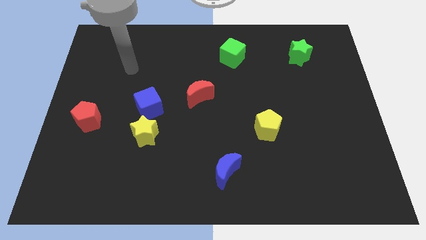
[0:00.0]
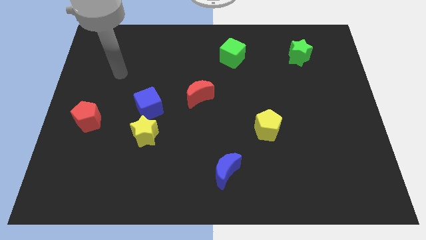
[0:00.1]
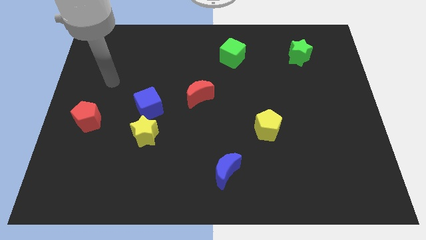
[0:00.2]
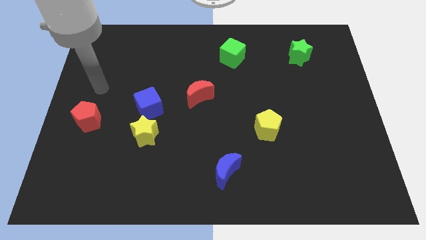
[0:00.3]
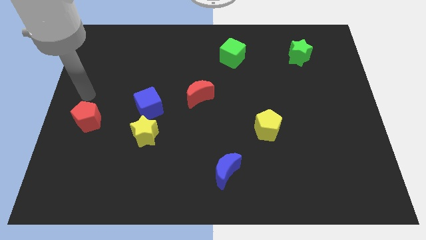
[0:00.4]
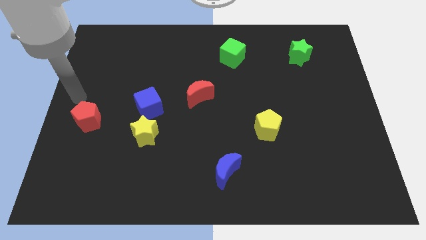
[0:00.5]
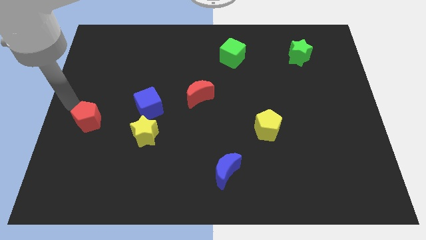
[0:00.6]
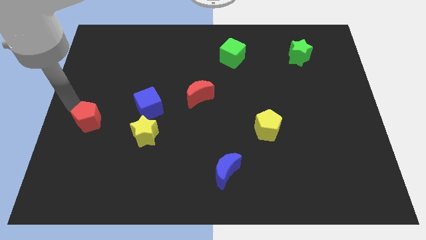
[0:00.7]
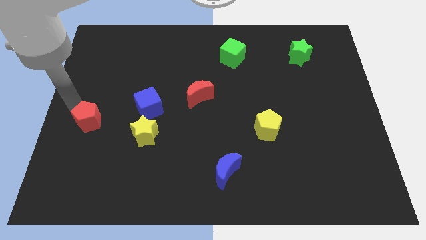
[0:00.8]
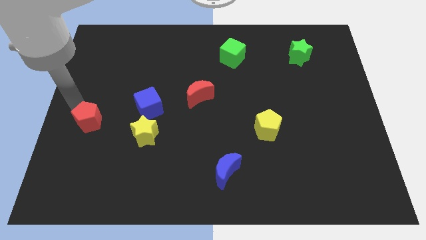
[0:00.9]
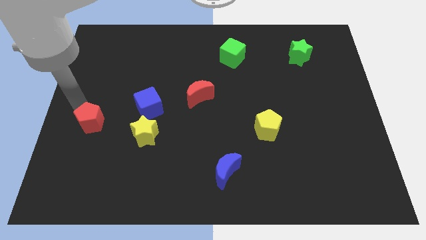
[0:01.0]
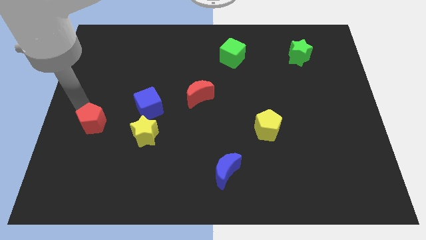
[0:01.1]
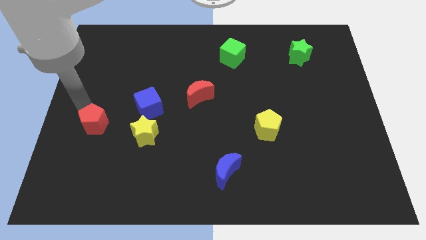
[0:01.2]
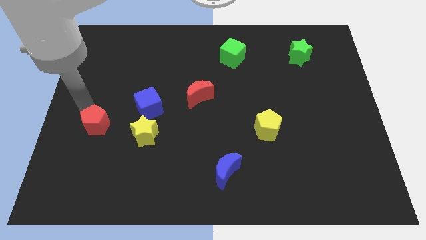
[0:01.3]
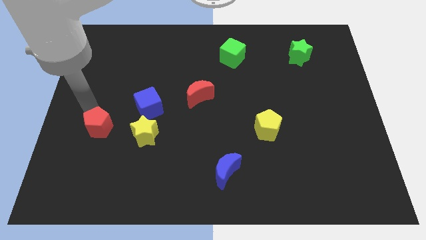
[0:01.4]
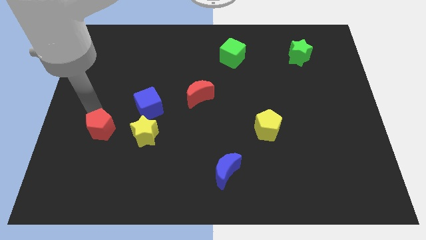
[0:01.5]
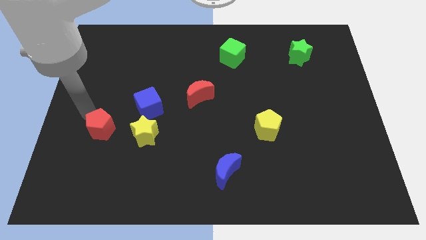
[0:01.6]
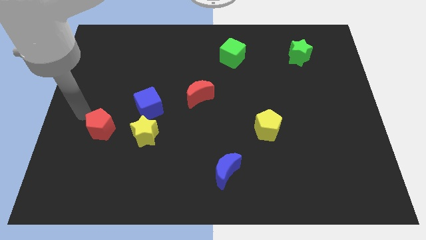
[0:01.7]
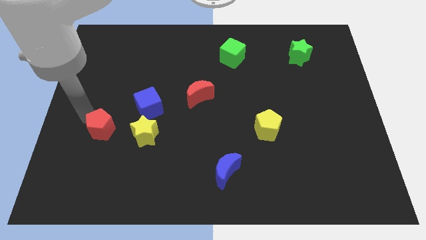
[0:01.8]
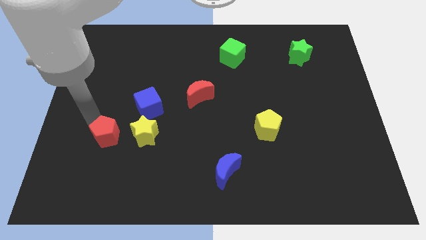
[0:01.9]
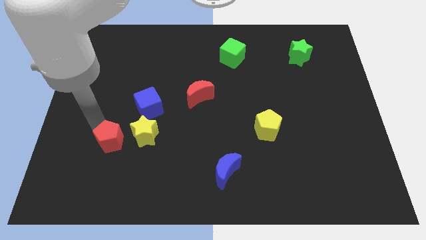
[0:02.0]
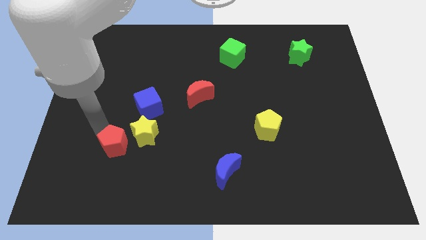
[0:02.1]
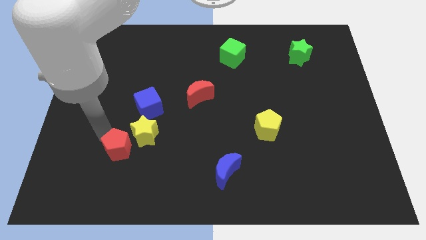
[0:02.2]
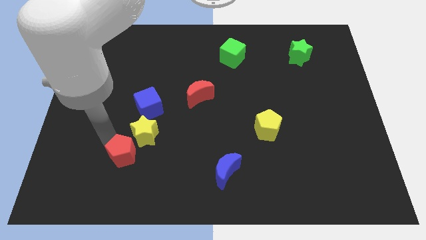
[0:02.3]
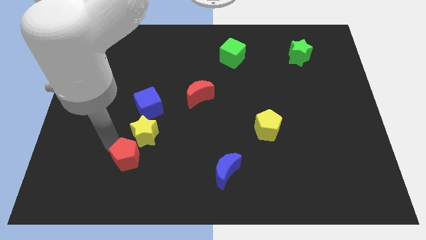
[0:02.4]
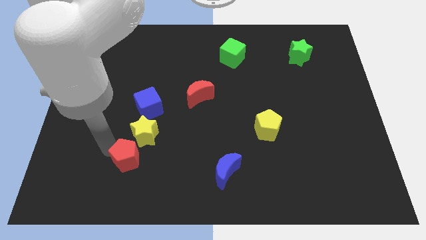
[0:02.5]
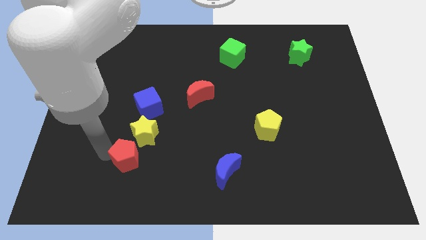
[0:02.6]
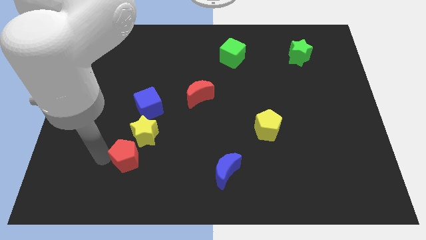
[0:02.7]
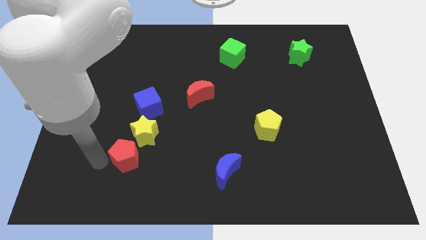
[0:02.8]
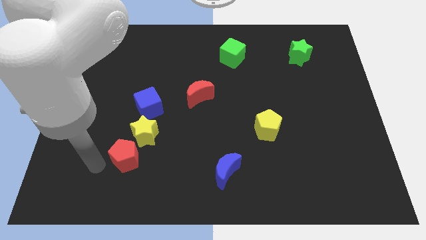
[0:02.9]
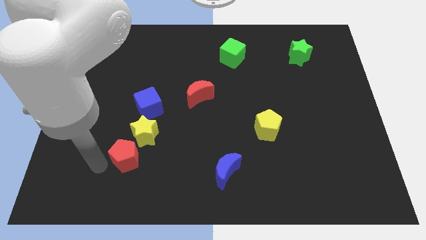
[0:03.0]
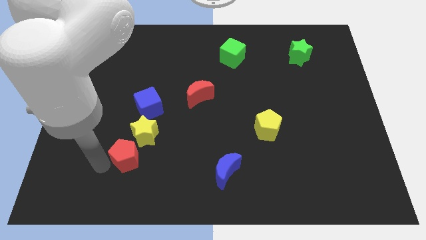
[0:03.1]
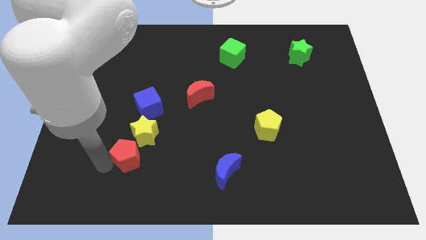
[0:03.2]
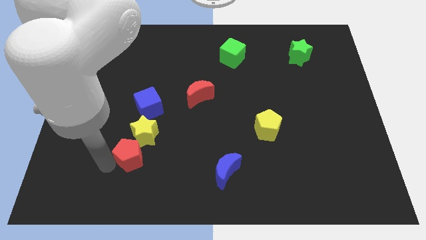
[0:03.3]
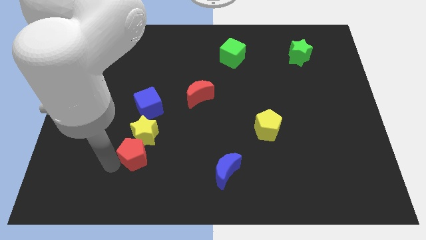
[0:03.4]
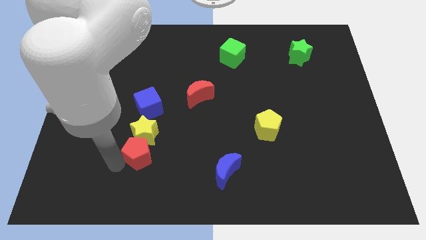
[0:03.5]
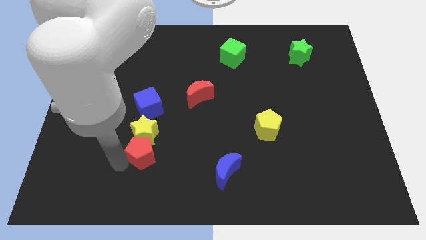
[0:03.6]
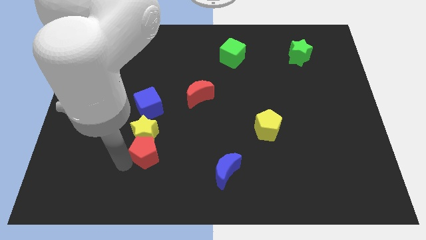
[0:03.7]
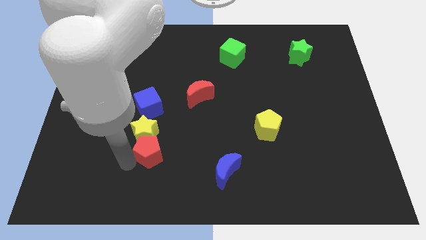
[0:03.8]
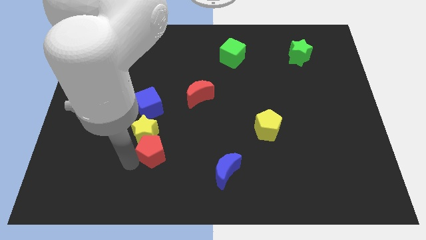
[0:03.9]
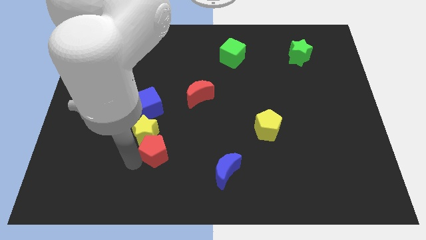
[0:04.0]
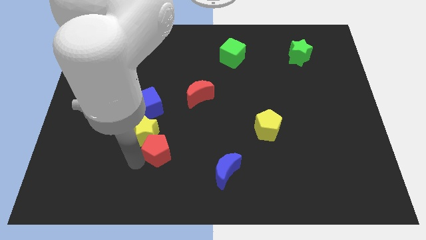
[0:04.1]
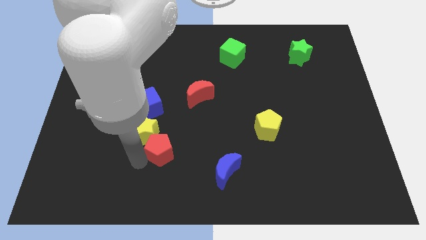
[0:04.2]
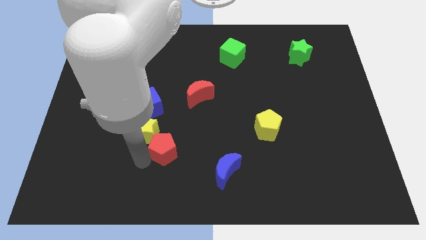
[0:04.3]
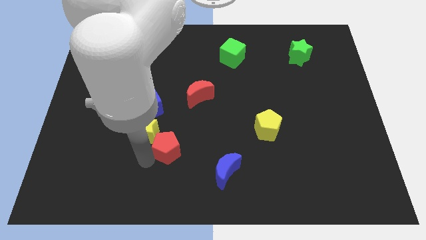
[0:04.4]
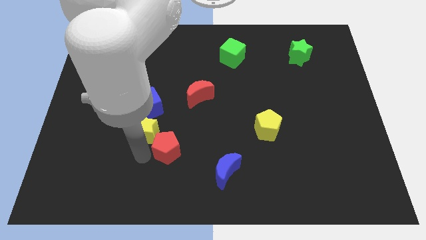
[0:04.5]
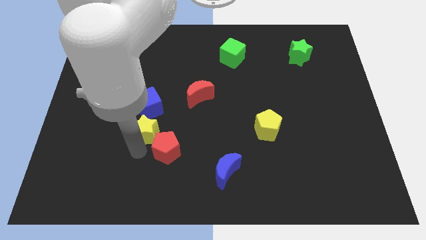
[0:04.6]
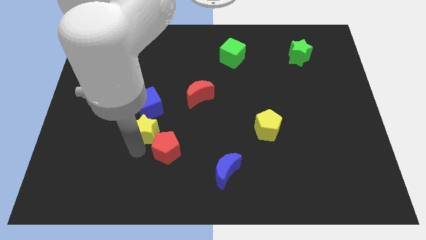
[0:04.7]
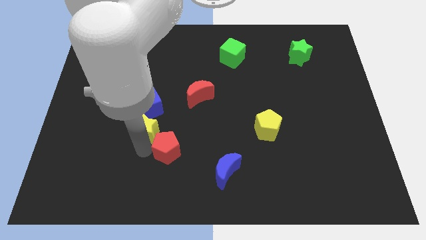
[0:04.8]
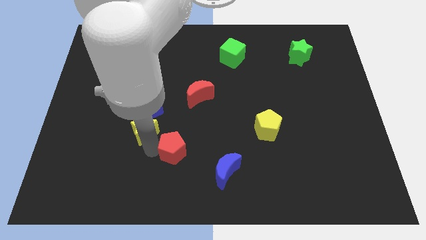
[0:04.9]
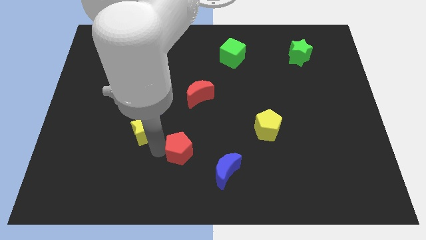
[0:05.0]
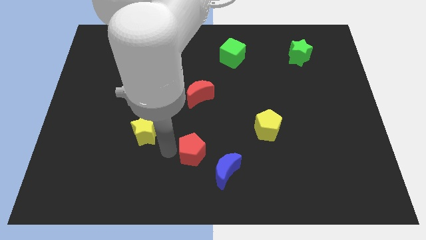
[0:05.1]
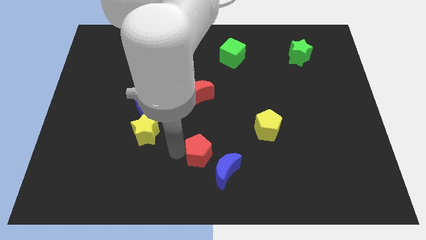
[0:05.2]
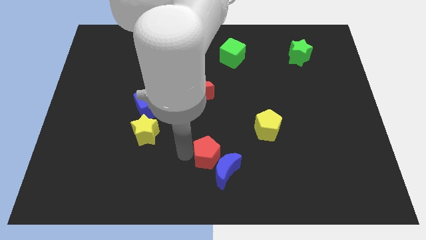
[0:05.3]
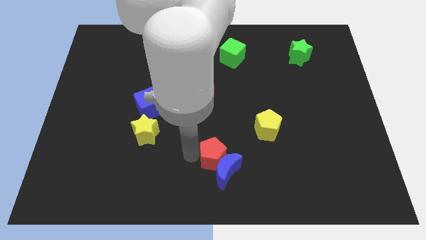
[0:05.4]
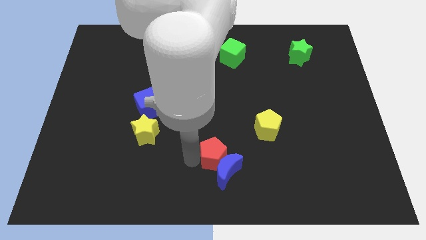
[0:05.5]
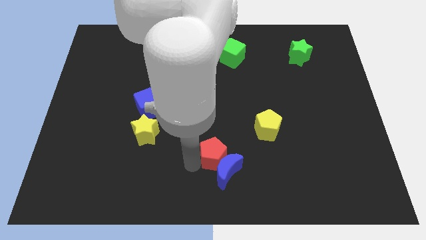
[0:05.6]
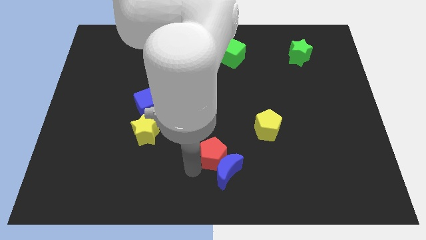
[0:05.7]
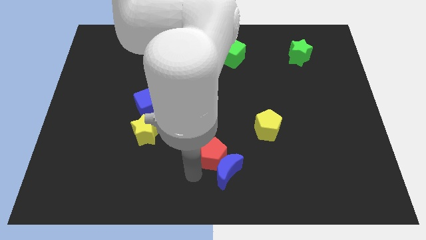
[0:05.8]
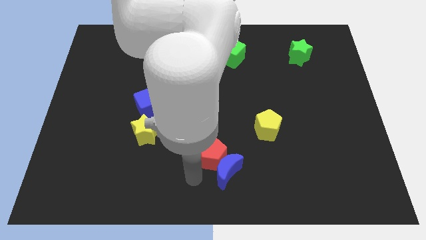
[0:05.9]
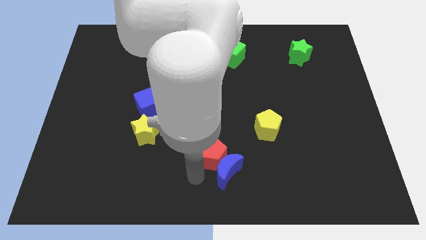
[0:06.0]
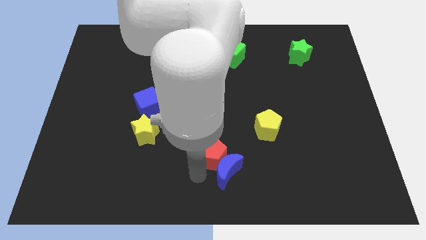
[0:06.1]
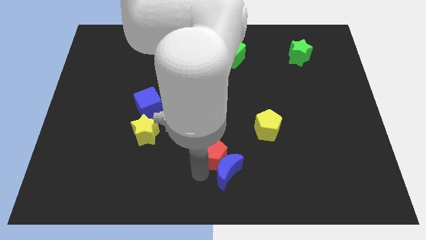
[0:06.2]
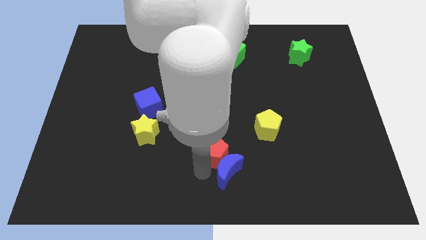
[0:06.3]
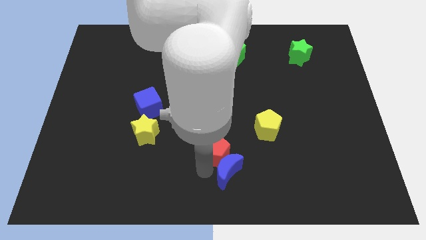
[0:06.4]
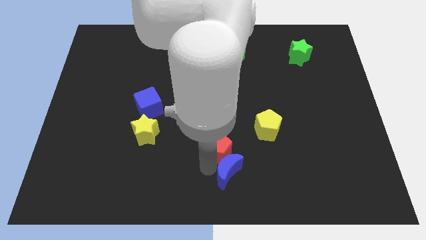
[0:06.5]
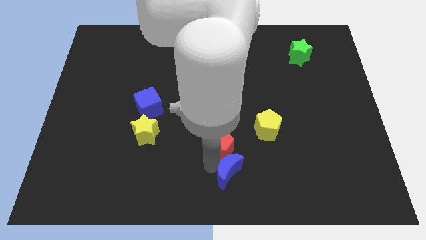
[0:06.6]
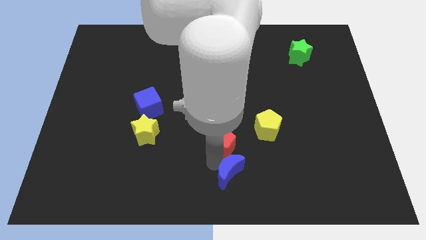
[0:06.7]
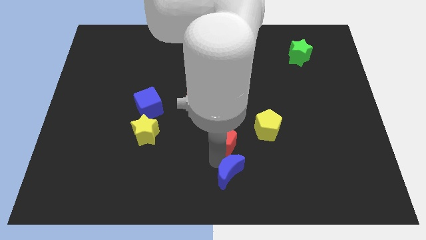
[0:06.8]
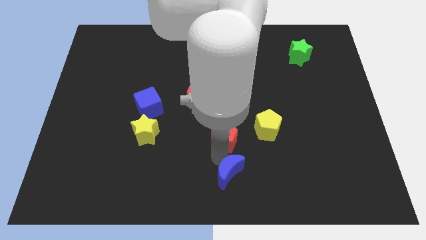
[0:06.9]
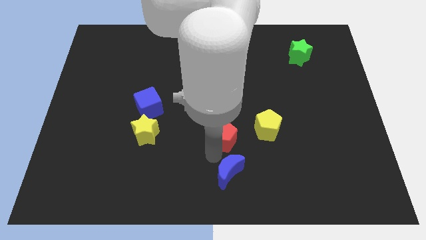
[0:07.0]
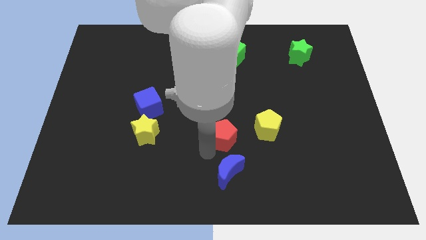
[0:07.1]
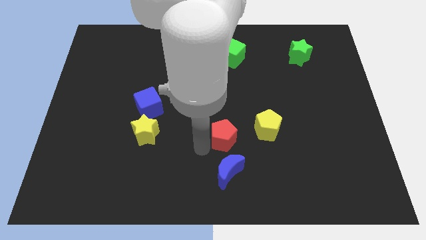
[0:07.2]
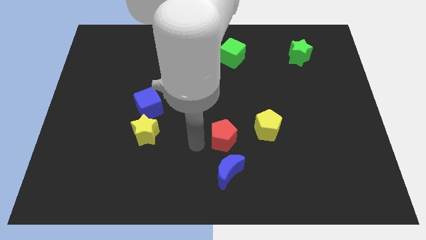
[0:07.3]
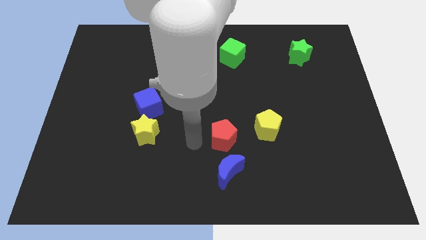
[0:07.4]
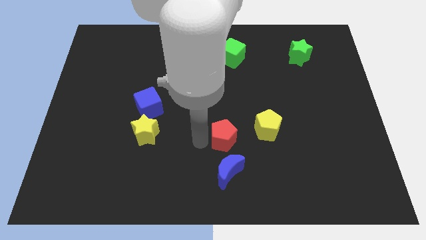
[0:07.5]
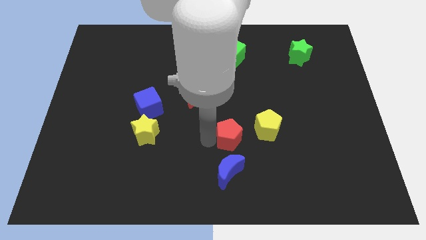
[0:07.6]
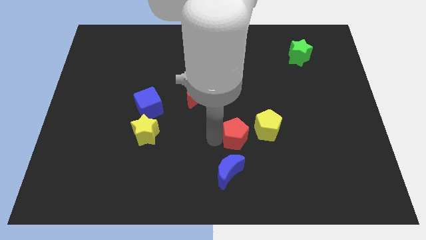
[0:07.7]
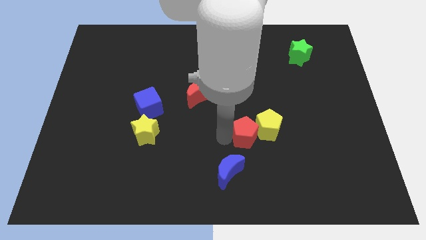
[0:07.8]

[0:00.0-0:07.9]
slide the red pentagon next to the yellow pentagon
